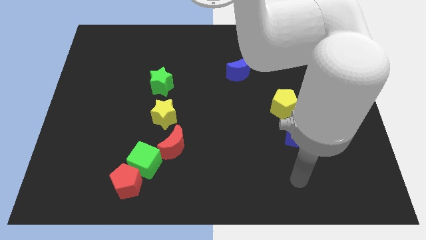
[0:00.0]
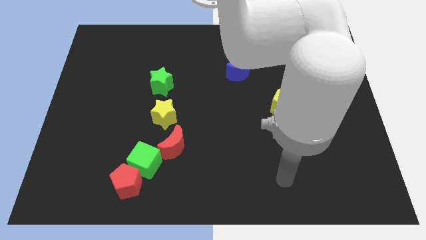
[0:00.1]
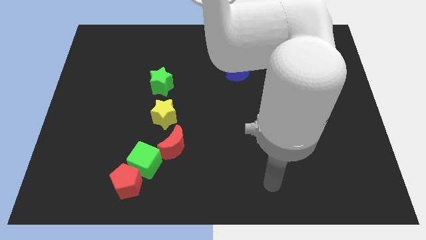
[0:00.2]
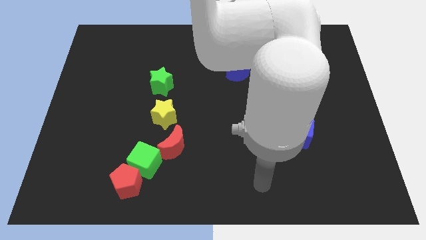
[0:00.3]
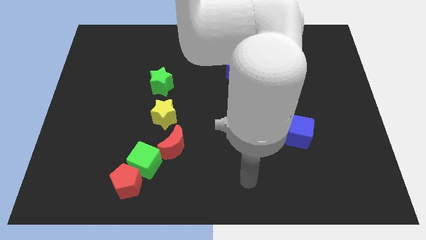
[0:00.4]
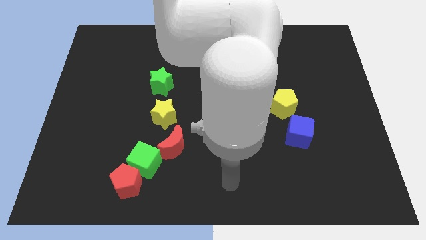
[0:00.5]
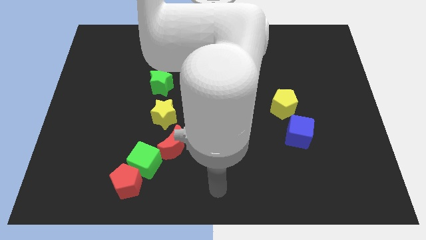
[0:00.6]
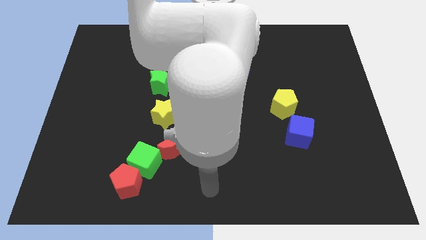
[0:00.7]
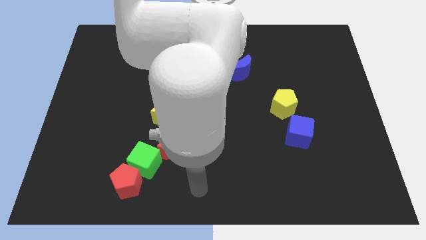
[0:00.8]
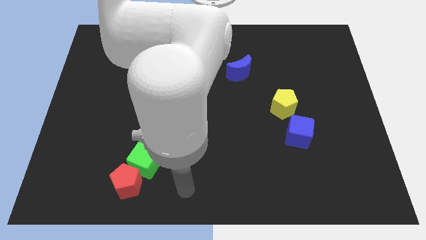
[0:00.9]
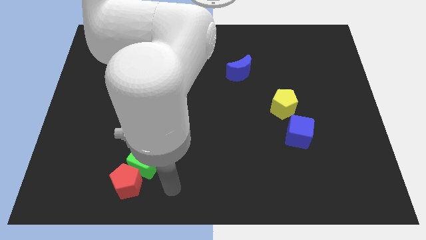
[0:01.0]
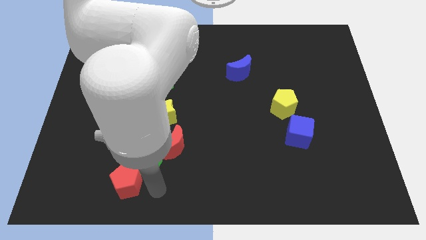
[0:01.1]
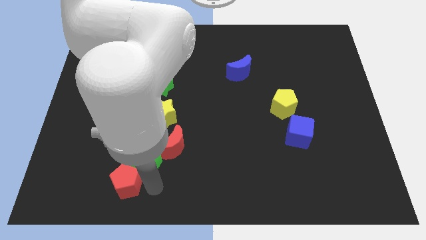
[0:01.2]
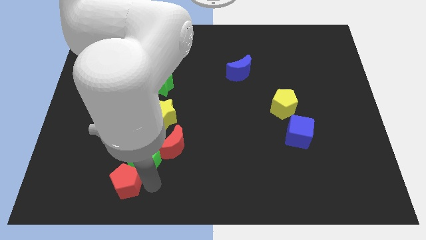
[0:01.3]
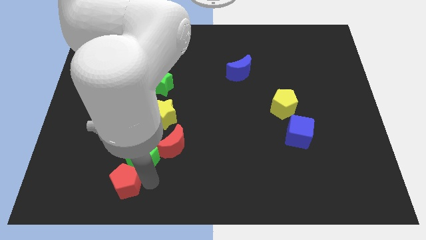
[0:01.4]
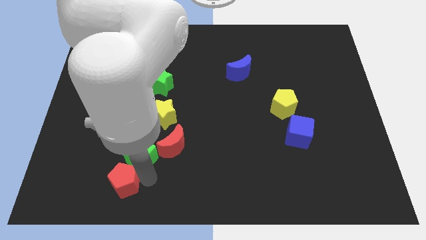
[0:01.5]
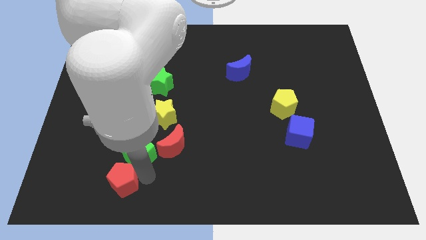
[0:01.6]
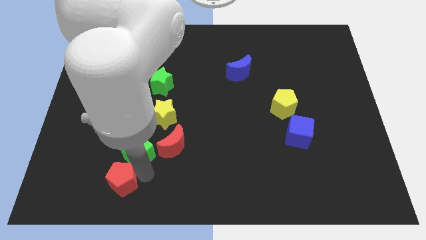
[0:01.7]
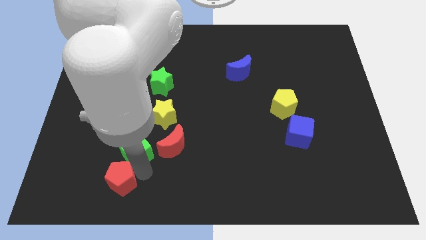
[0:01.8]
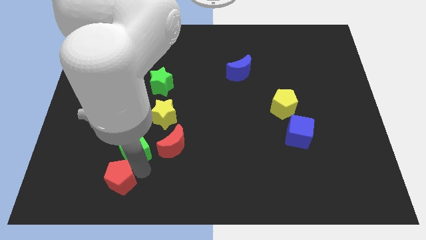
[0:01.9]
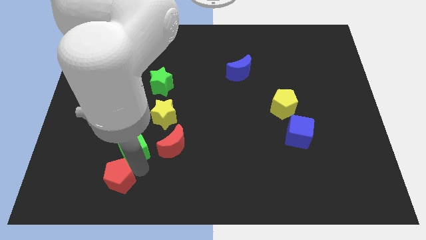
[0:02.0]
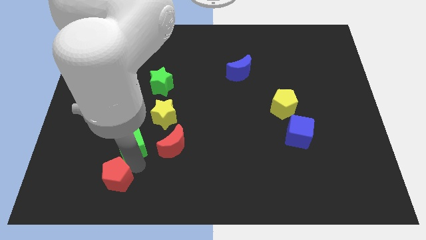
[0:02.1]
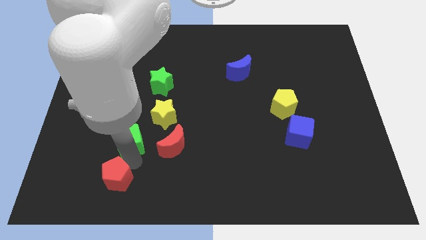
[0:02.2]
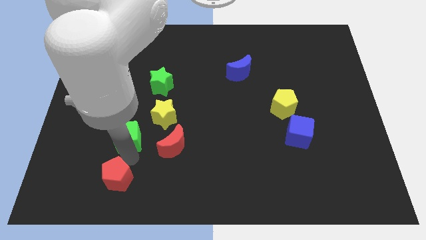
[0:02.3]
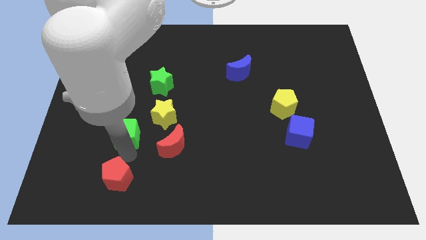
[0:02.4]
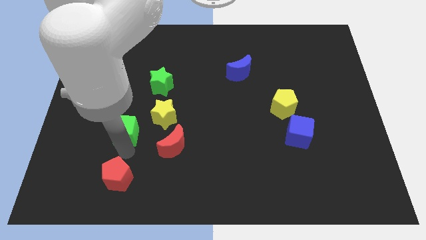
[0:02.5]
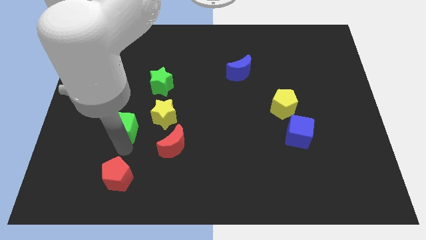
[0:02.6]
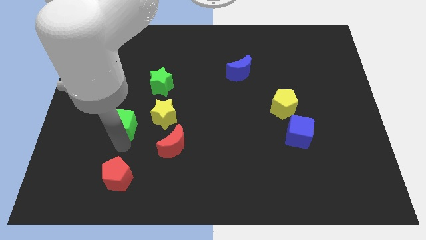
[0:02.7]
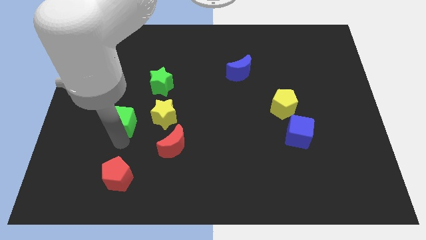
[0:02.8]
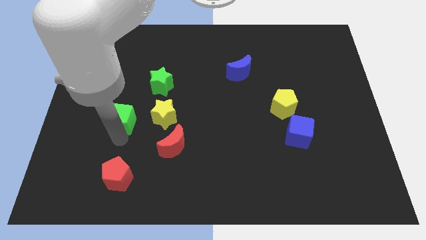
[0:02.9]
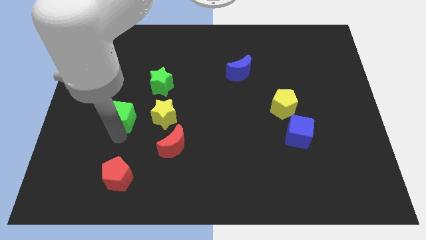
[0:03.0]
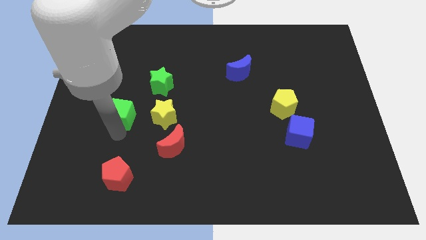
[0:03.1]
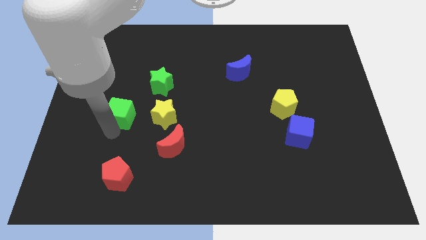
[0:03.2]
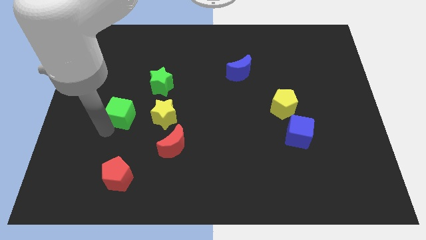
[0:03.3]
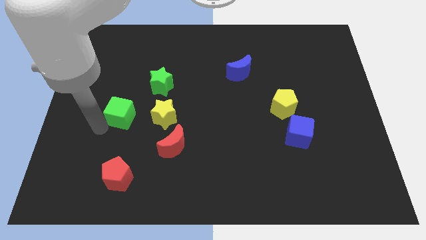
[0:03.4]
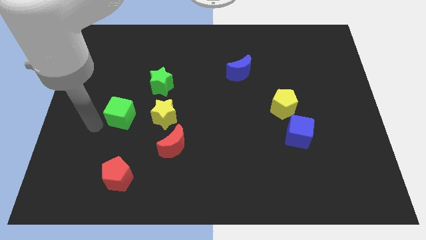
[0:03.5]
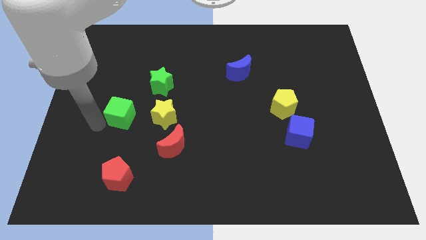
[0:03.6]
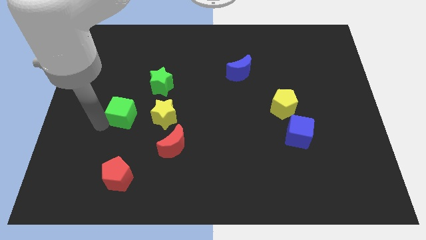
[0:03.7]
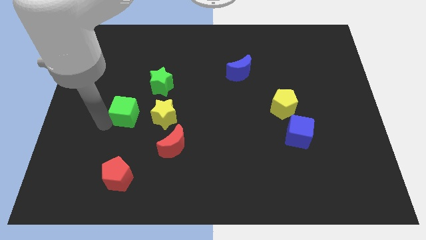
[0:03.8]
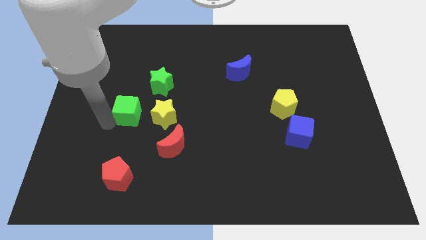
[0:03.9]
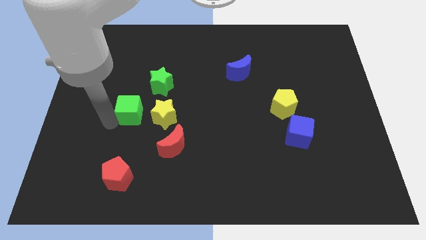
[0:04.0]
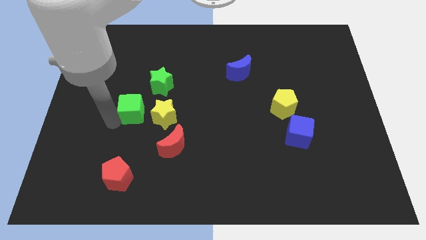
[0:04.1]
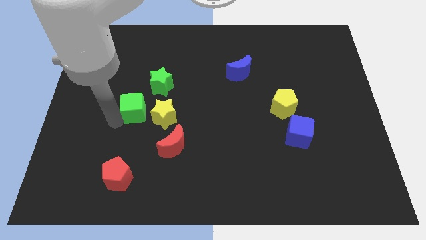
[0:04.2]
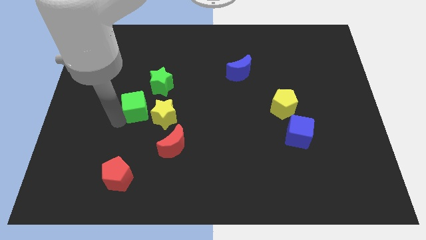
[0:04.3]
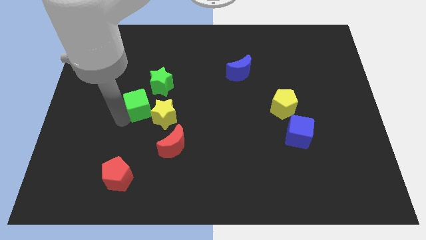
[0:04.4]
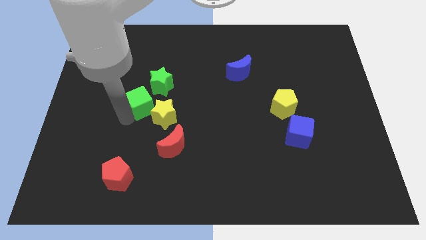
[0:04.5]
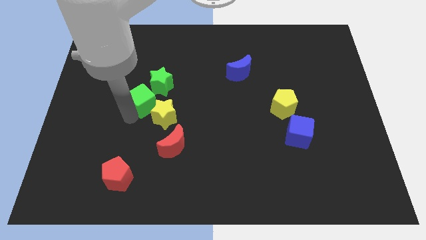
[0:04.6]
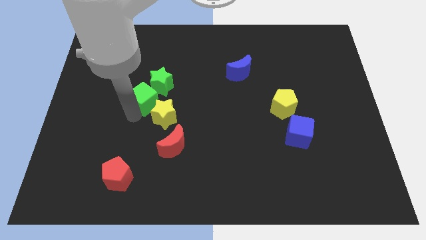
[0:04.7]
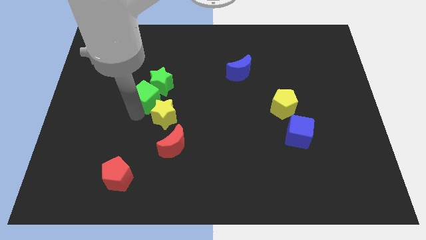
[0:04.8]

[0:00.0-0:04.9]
move the green cube towards the green star

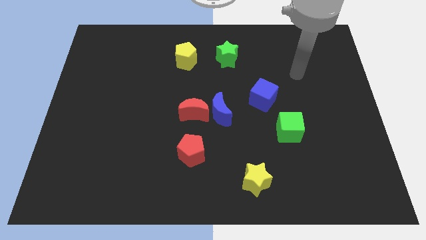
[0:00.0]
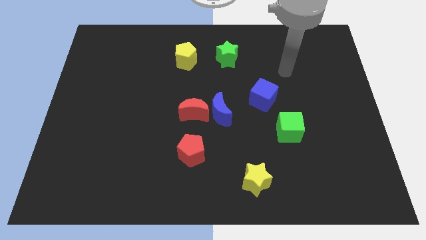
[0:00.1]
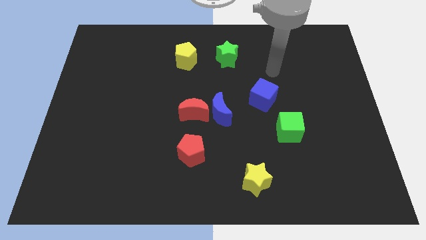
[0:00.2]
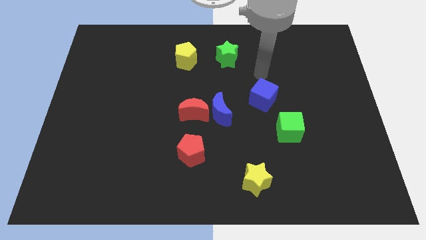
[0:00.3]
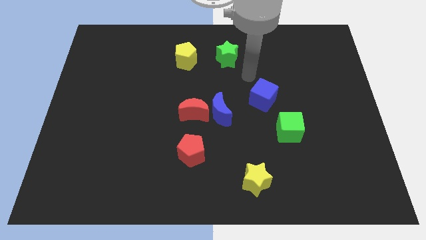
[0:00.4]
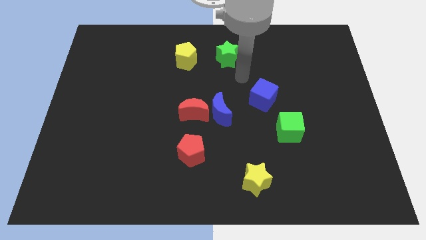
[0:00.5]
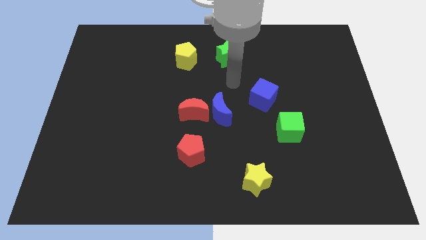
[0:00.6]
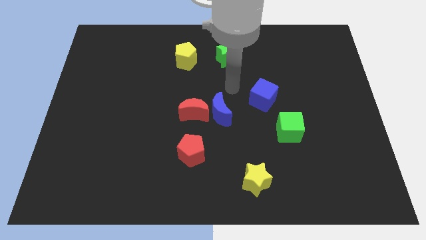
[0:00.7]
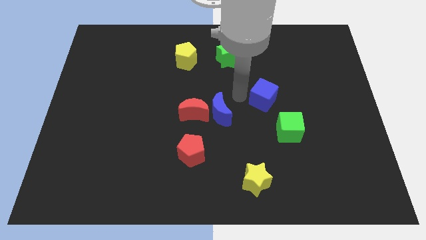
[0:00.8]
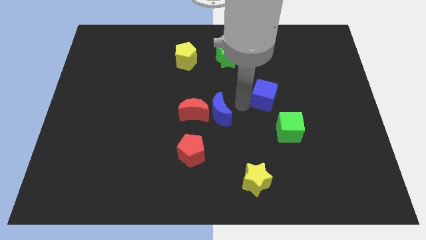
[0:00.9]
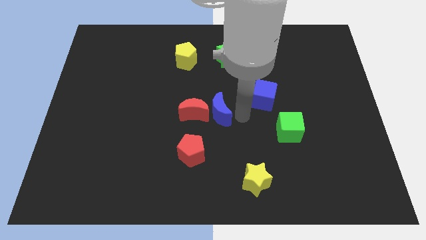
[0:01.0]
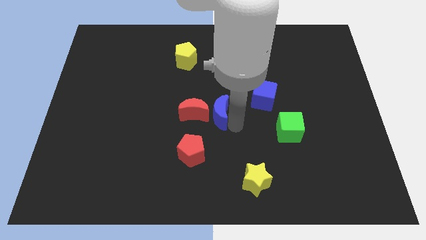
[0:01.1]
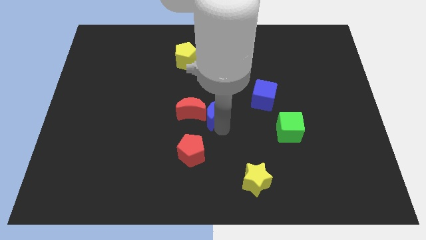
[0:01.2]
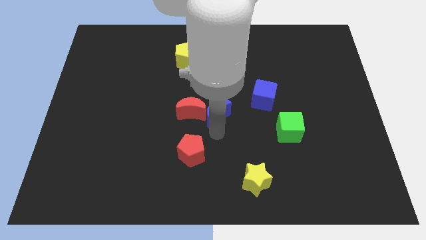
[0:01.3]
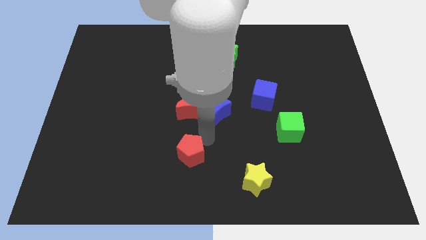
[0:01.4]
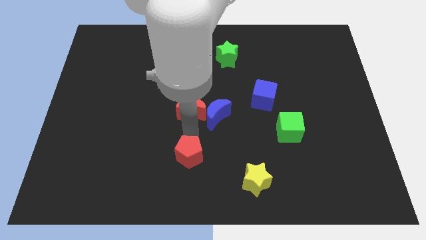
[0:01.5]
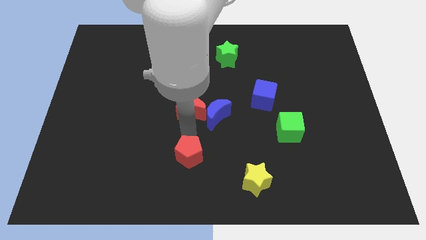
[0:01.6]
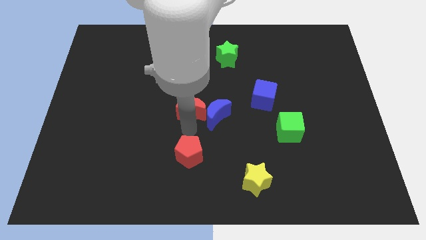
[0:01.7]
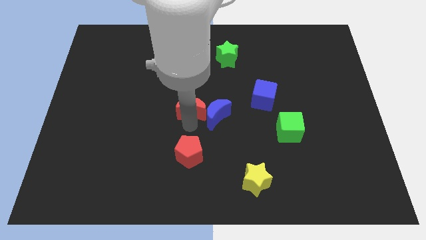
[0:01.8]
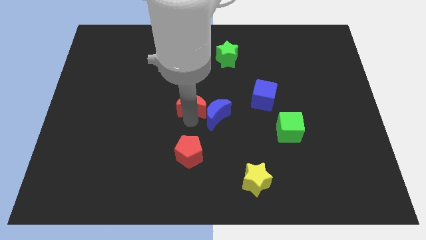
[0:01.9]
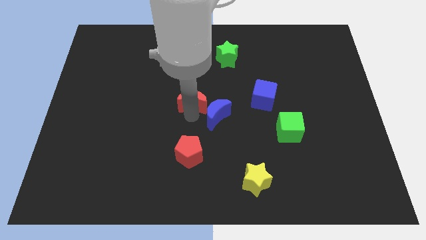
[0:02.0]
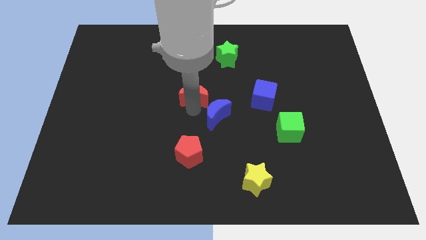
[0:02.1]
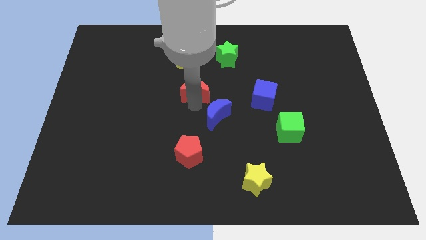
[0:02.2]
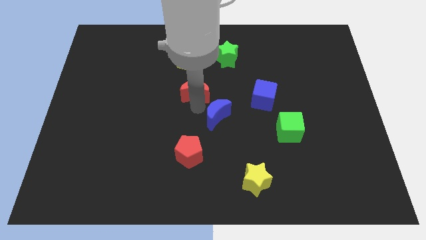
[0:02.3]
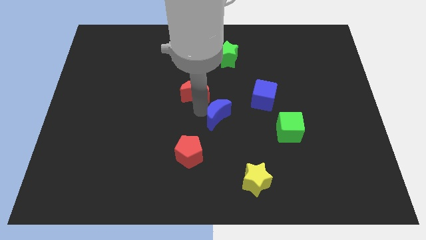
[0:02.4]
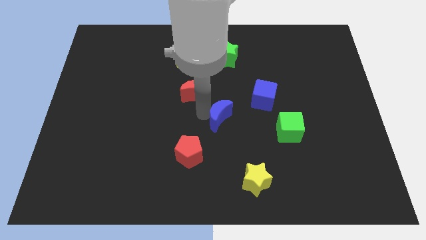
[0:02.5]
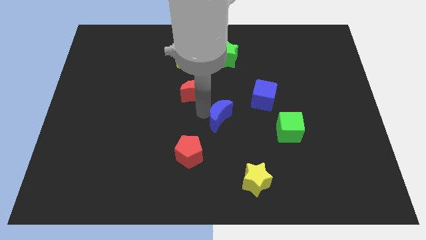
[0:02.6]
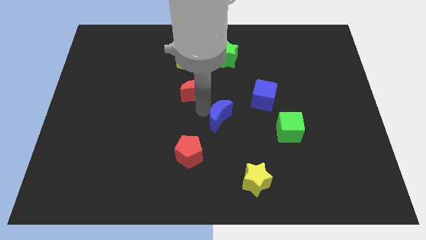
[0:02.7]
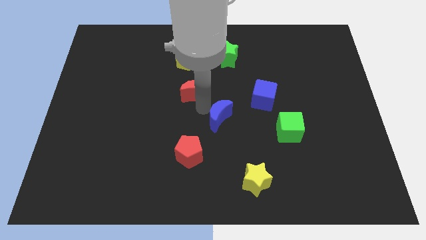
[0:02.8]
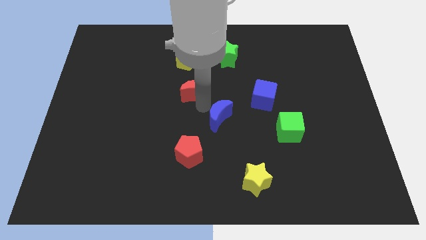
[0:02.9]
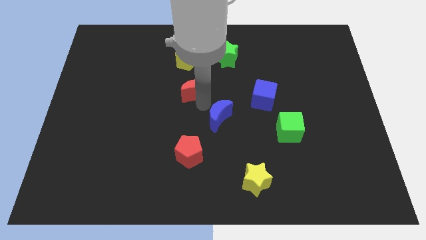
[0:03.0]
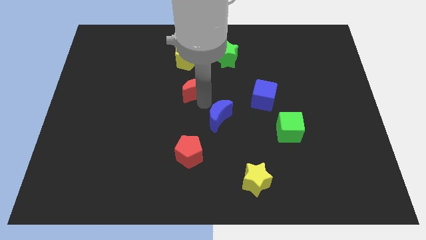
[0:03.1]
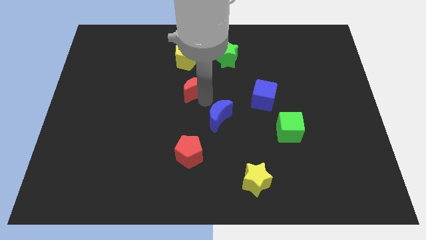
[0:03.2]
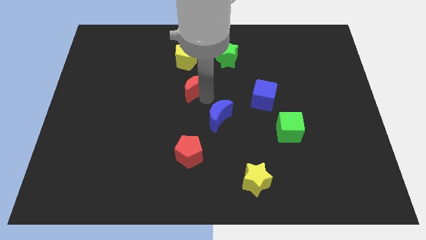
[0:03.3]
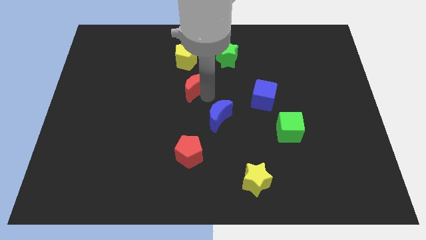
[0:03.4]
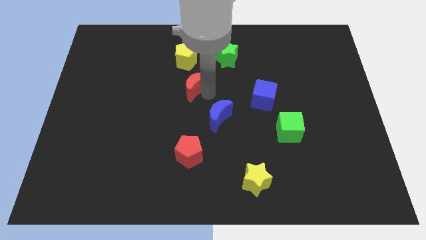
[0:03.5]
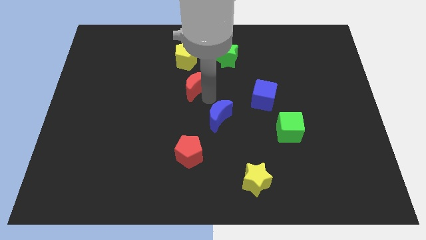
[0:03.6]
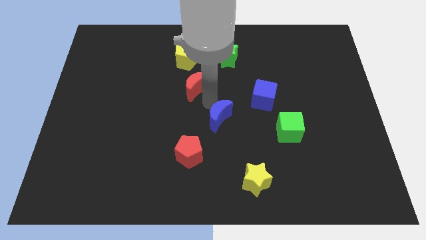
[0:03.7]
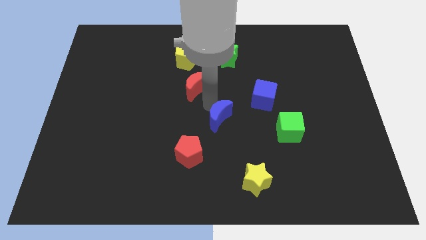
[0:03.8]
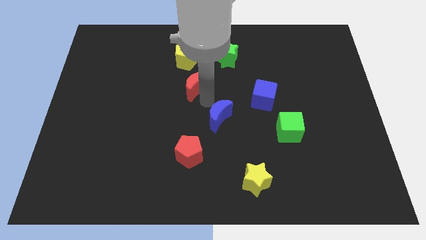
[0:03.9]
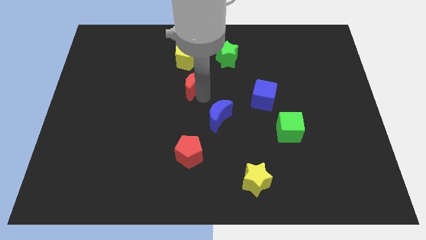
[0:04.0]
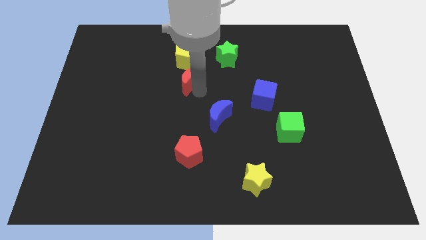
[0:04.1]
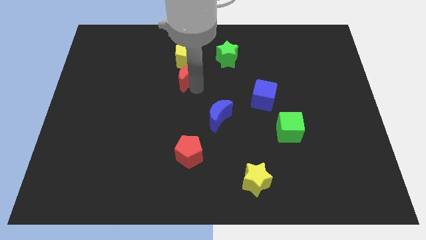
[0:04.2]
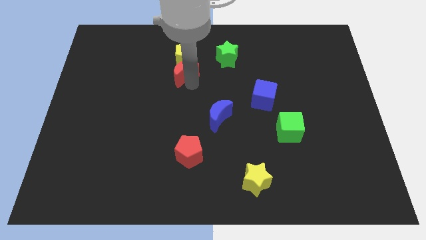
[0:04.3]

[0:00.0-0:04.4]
slide the red moon to the yellow pentagon
